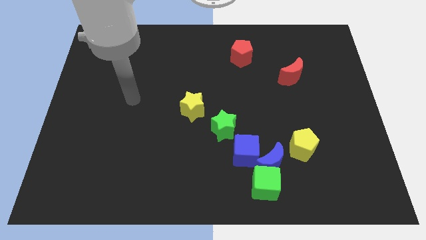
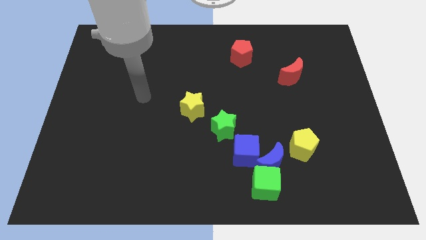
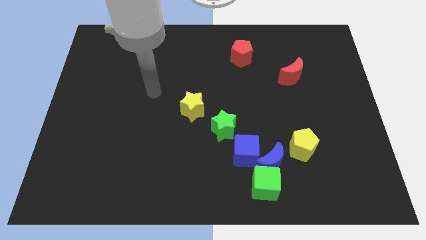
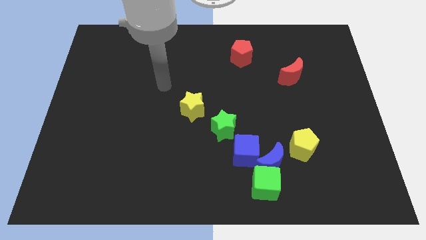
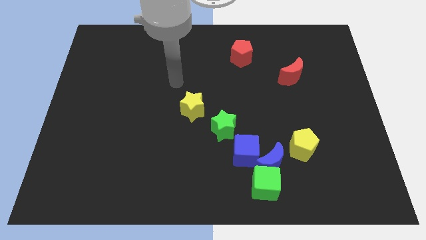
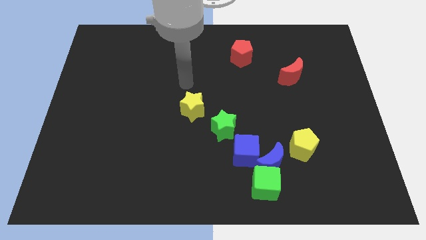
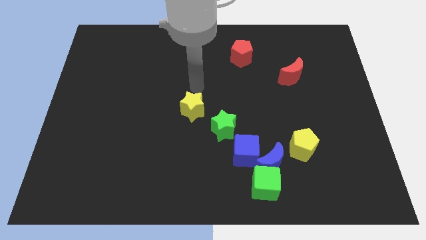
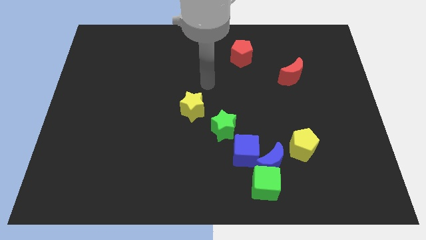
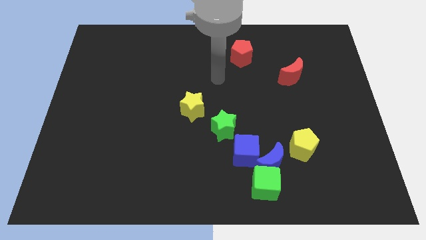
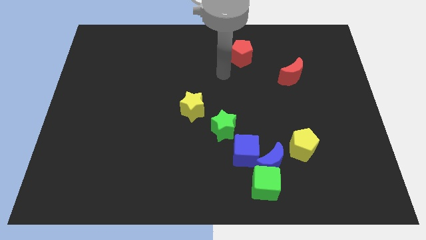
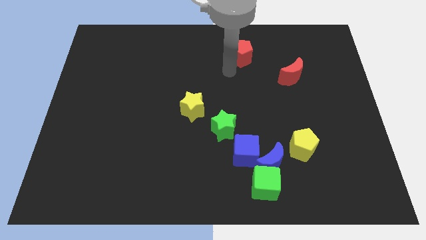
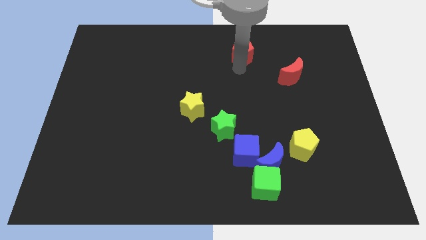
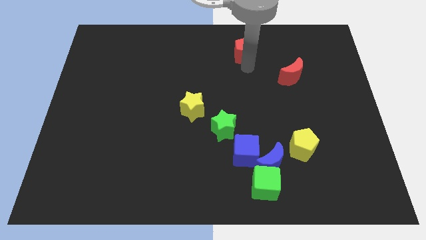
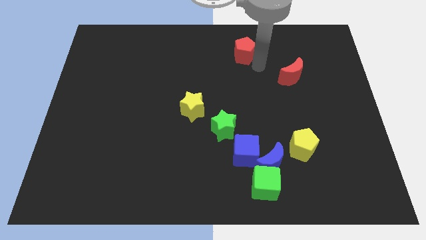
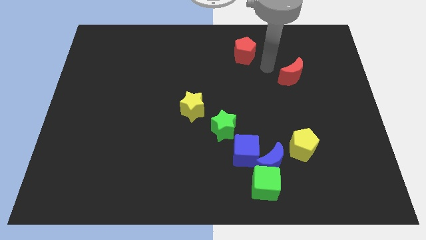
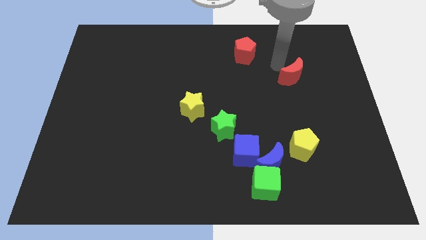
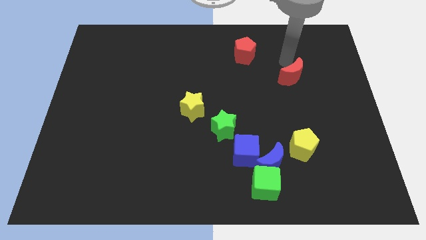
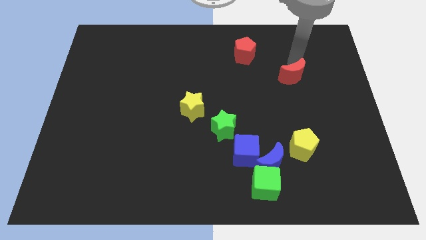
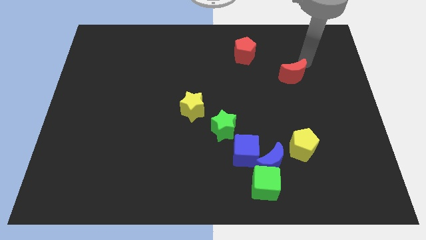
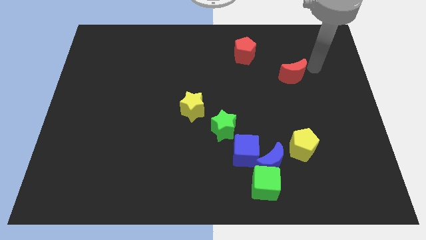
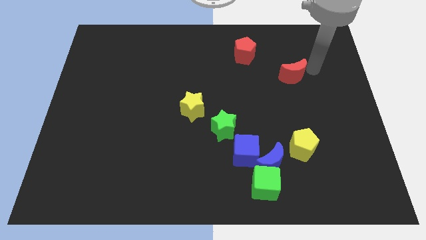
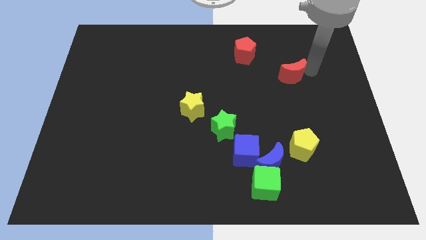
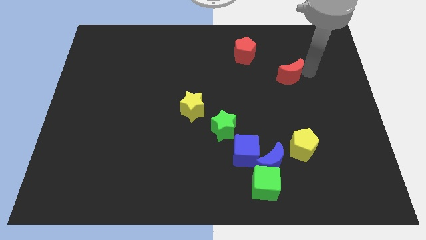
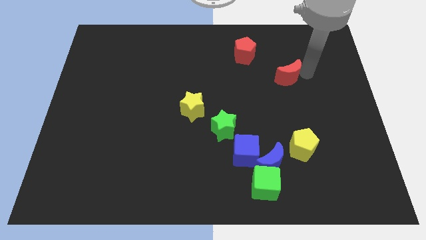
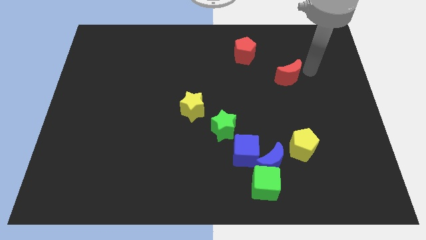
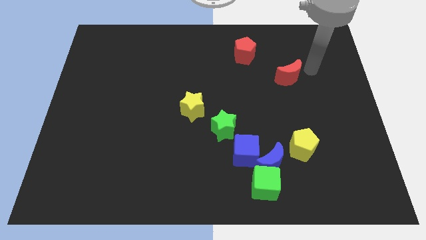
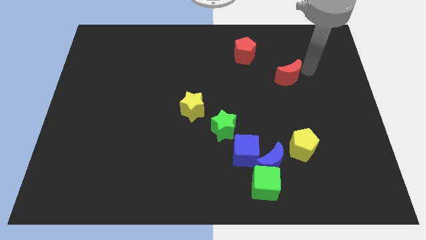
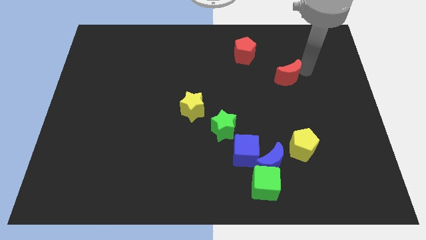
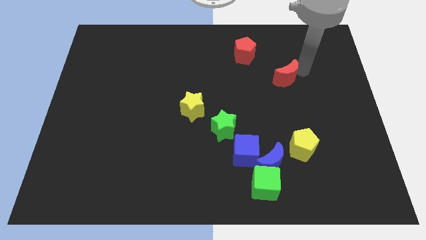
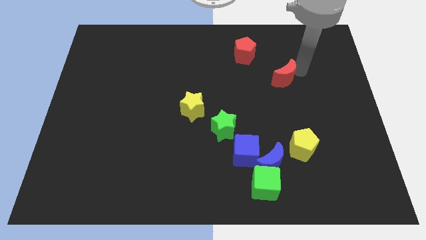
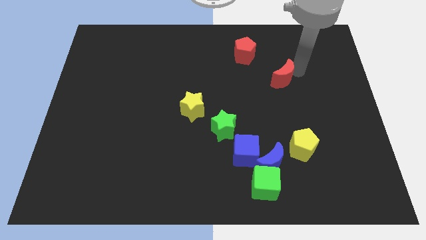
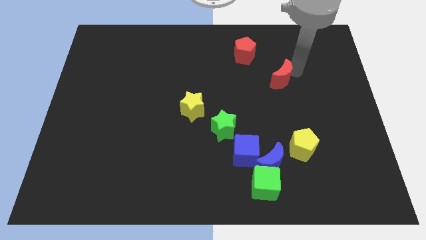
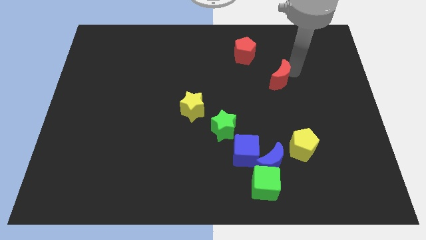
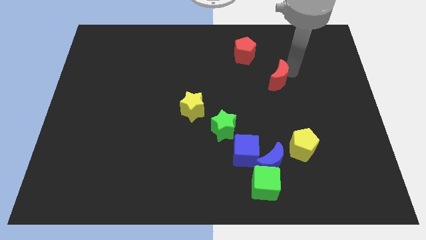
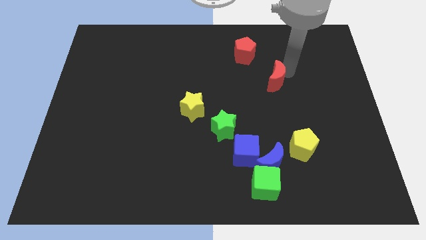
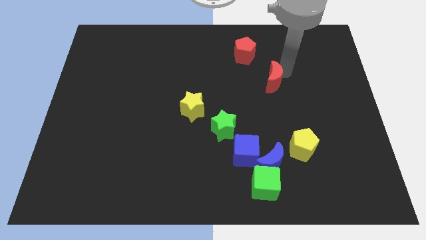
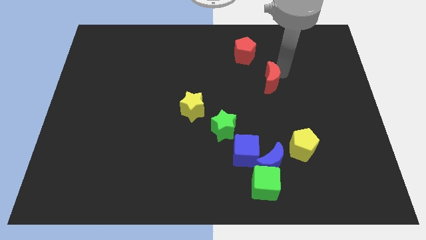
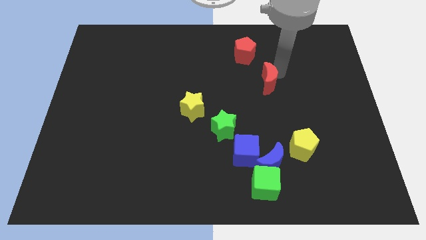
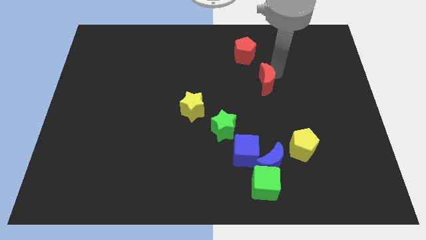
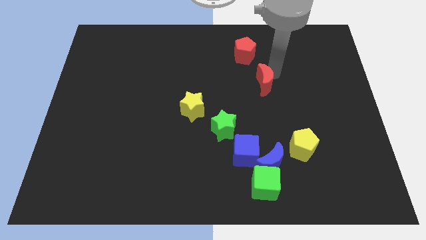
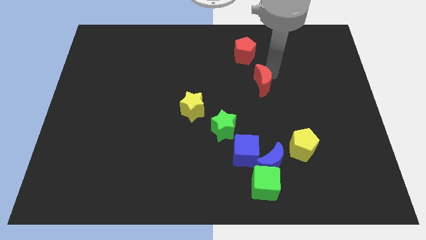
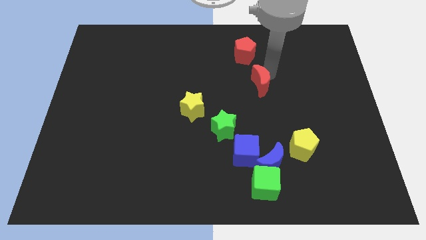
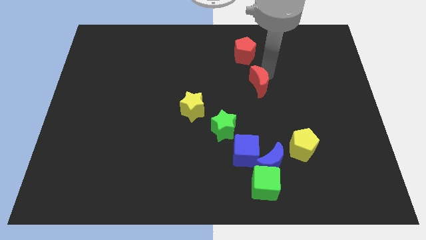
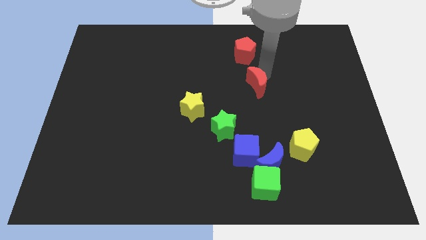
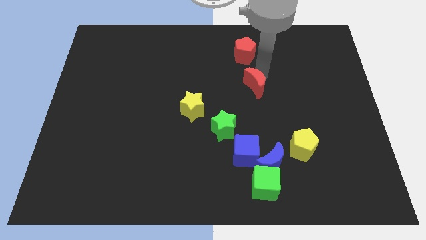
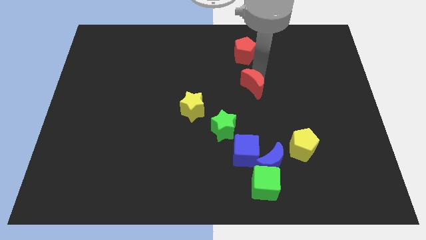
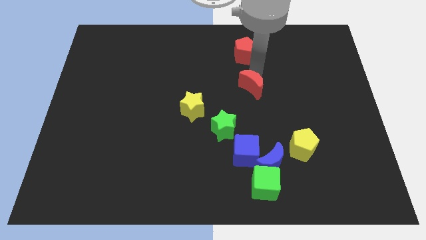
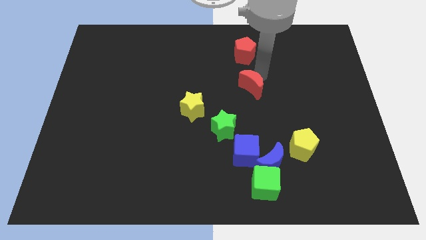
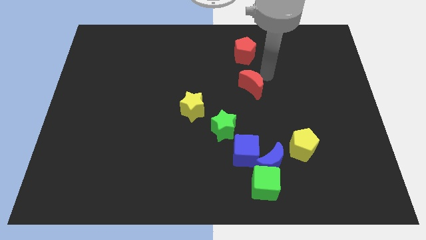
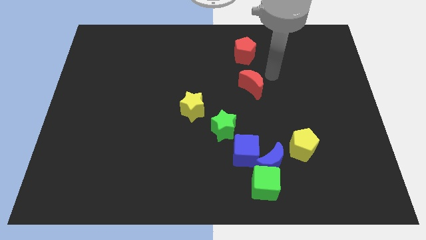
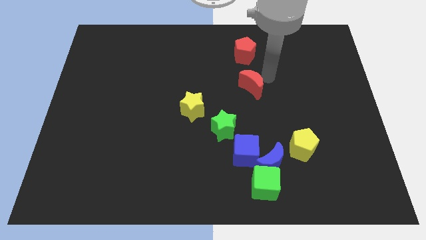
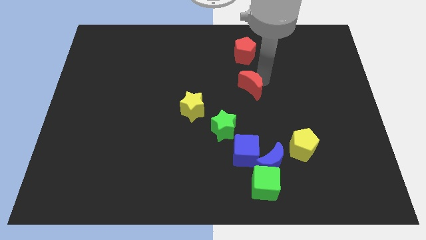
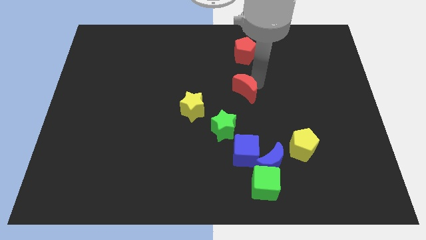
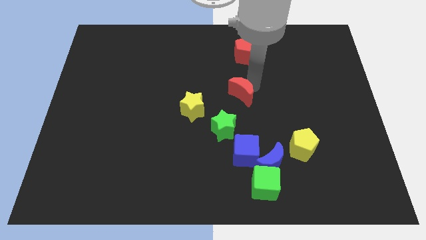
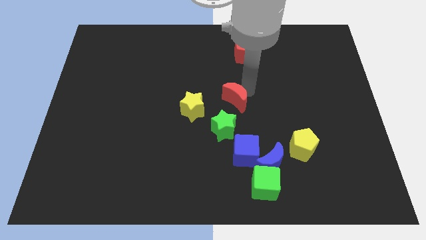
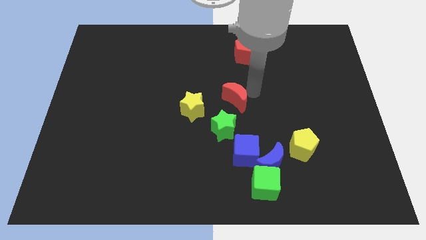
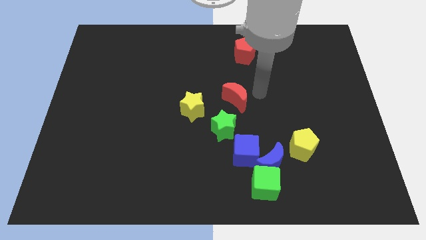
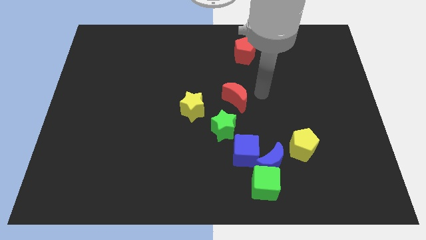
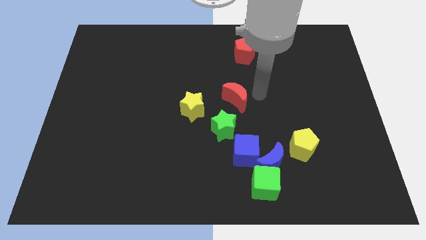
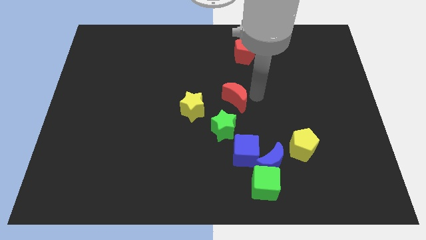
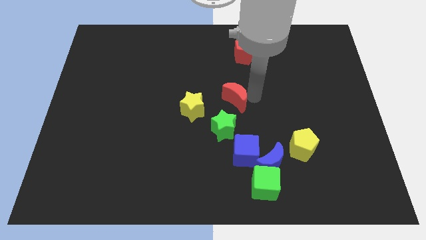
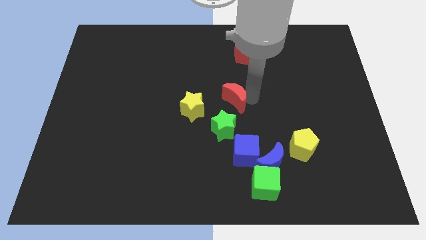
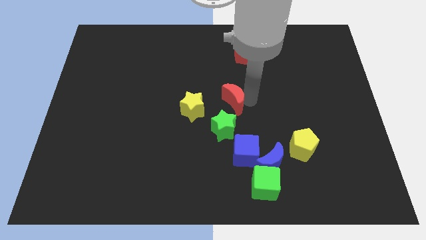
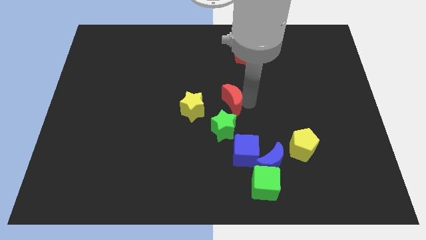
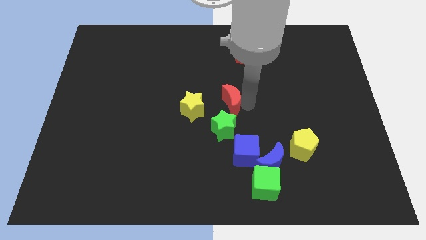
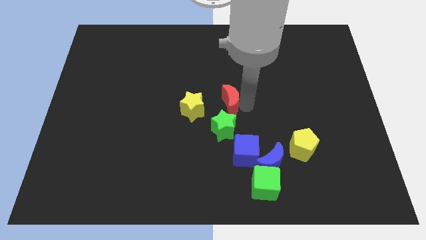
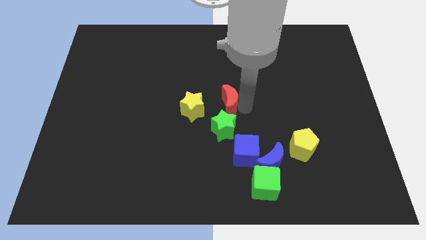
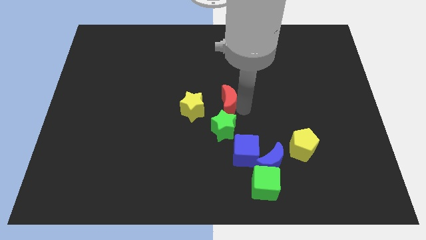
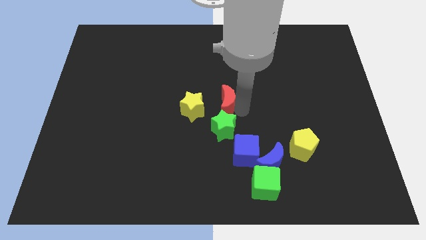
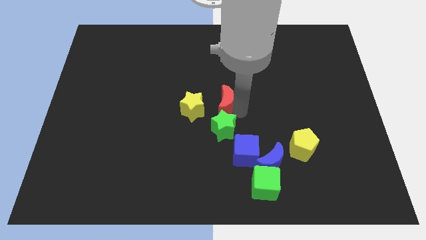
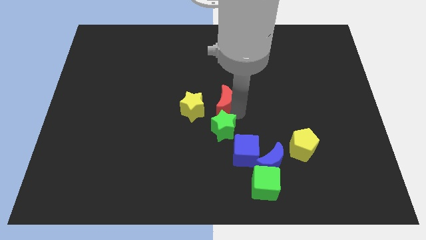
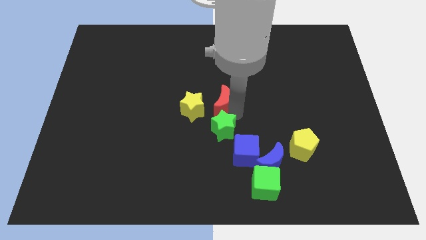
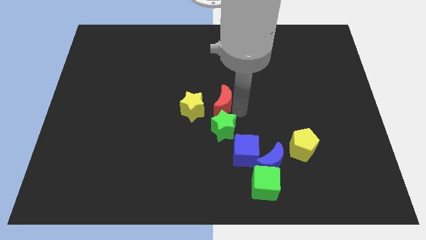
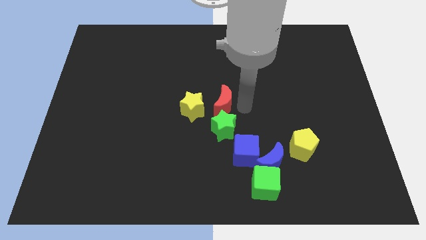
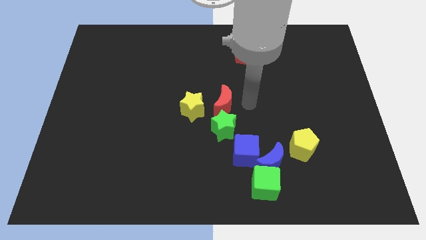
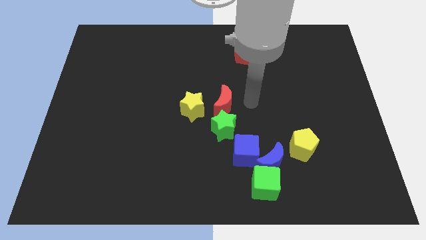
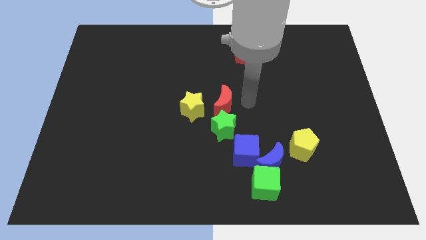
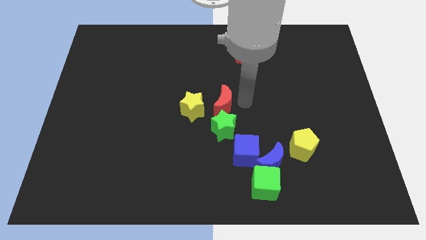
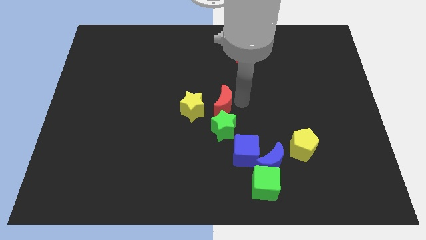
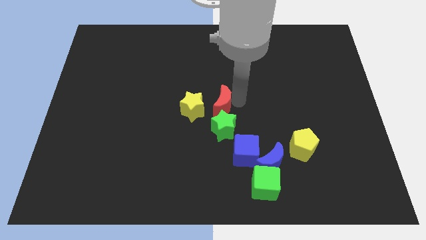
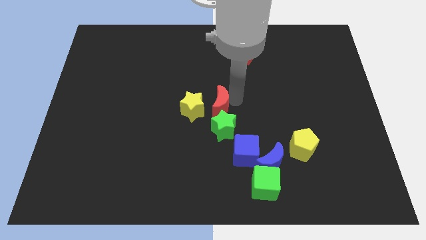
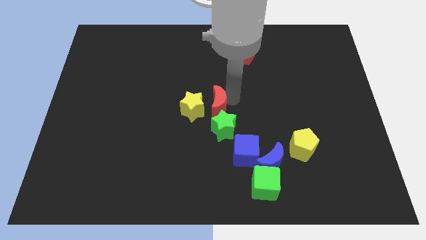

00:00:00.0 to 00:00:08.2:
push the red moon towards the yellow star
